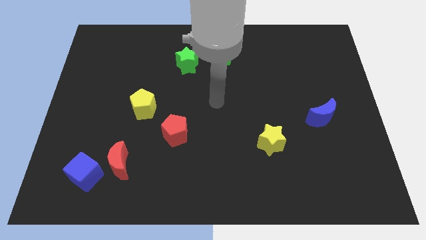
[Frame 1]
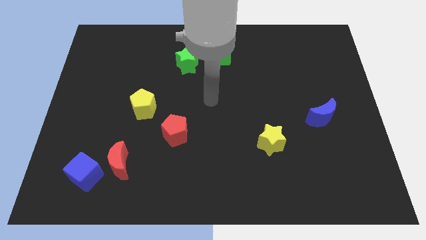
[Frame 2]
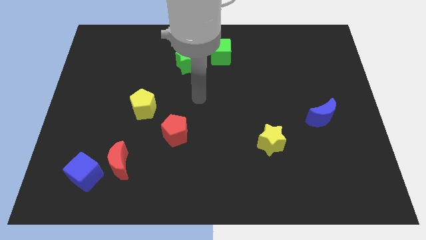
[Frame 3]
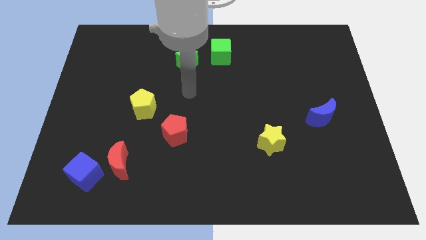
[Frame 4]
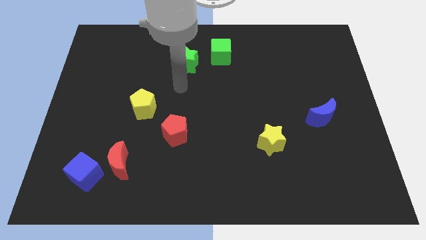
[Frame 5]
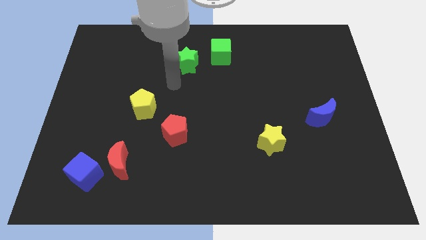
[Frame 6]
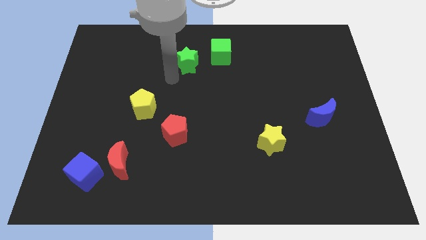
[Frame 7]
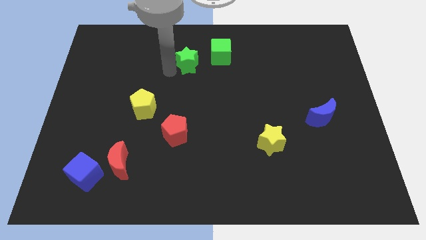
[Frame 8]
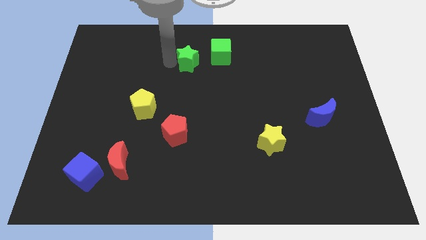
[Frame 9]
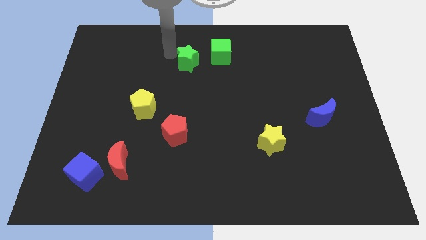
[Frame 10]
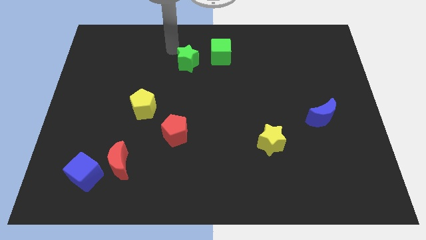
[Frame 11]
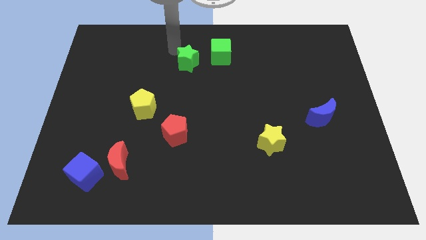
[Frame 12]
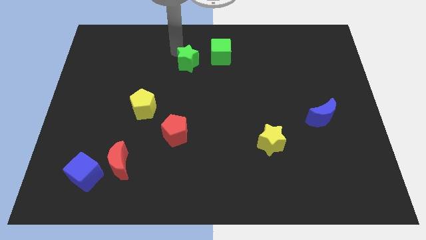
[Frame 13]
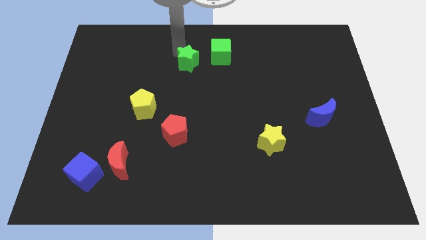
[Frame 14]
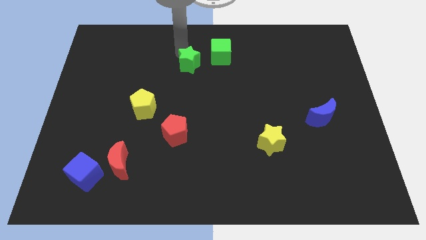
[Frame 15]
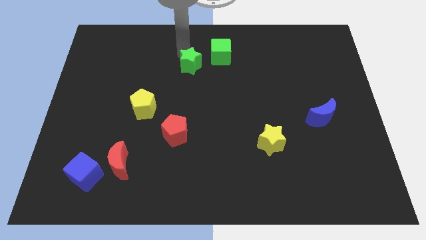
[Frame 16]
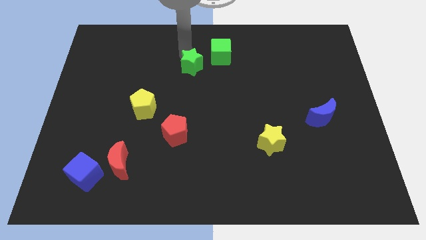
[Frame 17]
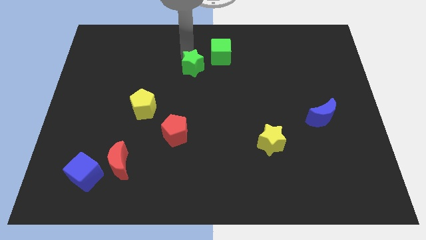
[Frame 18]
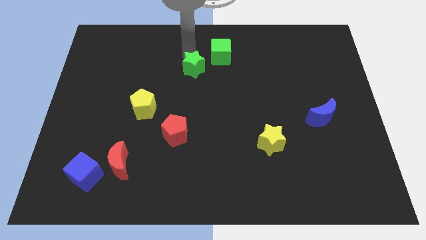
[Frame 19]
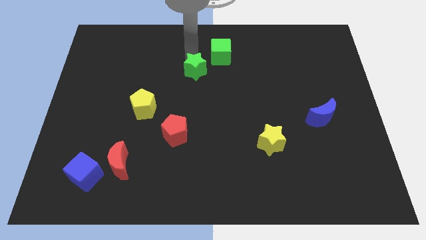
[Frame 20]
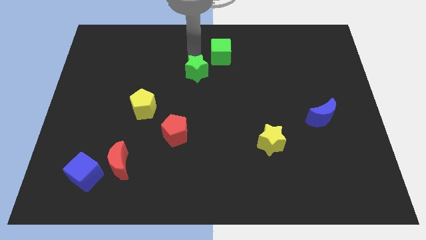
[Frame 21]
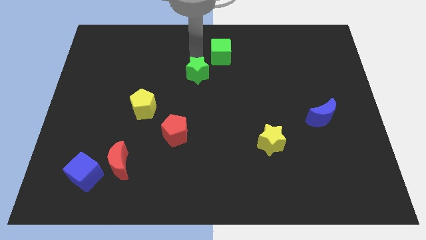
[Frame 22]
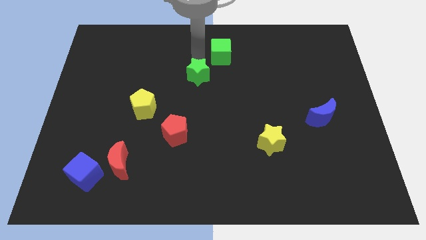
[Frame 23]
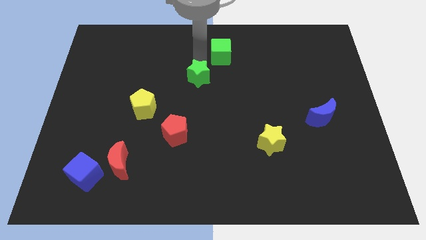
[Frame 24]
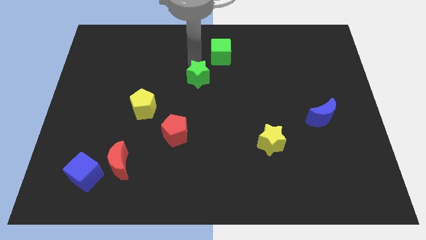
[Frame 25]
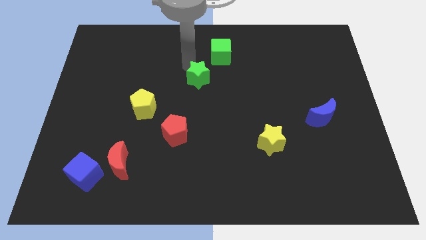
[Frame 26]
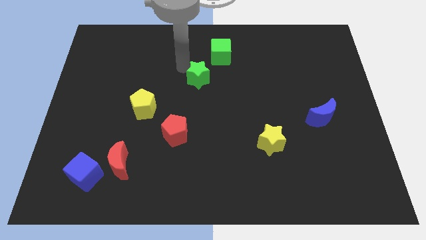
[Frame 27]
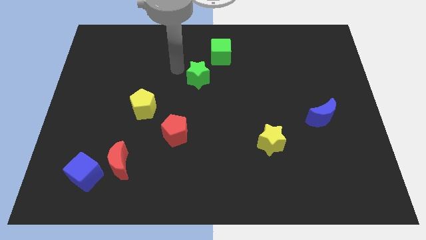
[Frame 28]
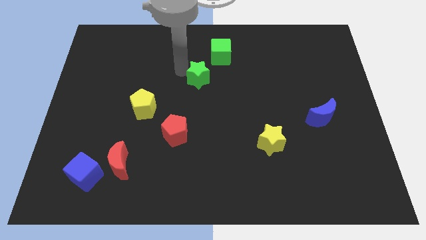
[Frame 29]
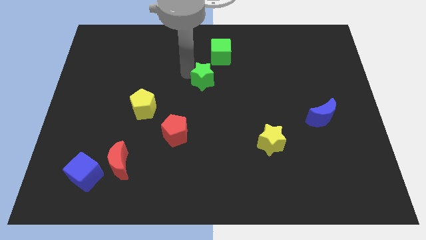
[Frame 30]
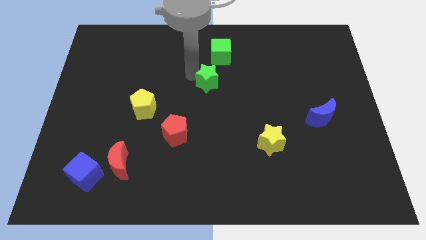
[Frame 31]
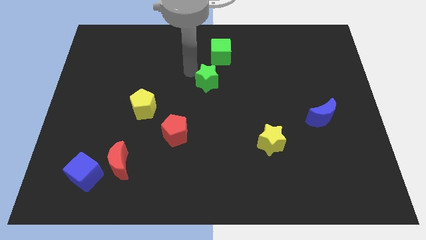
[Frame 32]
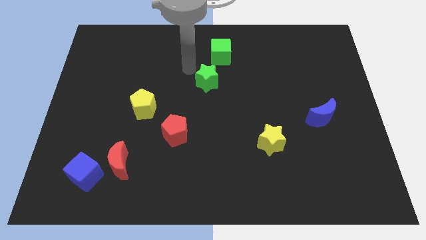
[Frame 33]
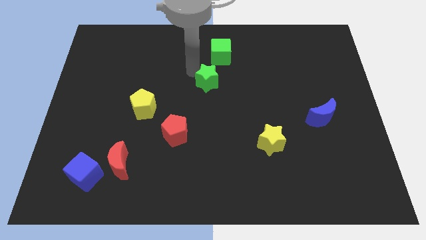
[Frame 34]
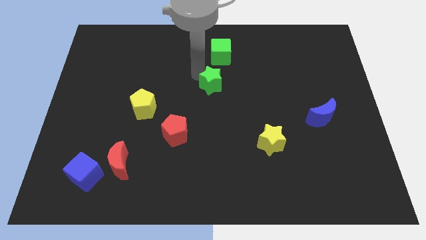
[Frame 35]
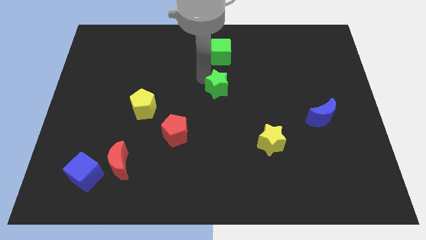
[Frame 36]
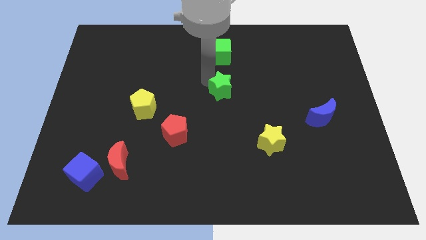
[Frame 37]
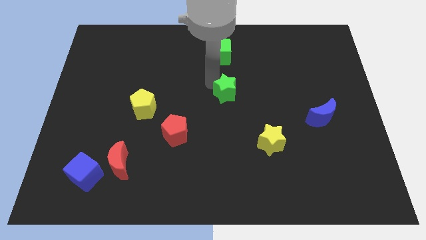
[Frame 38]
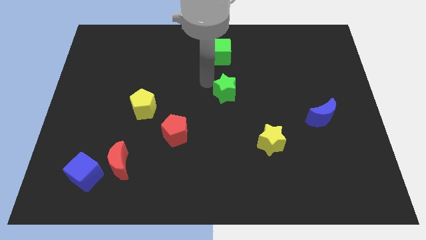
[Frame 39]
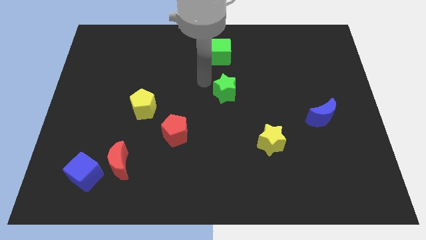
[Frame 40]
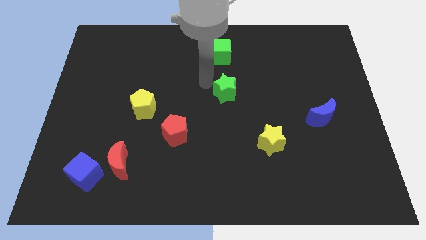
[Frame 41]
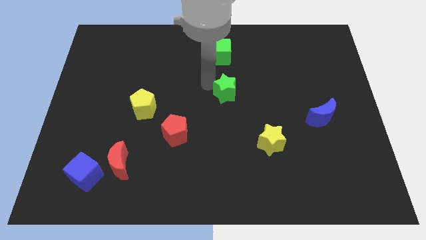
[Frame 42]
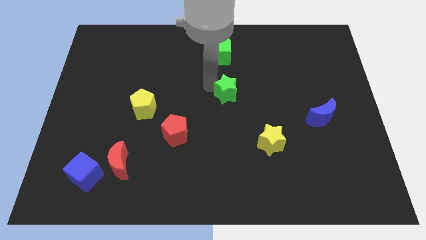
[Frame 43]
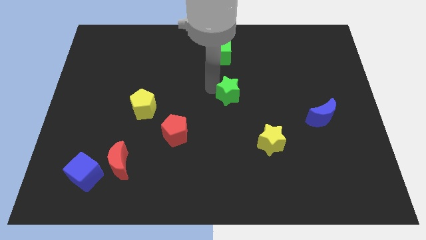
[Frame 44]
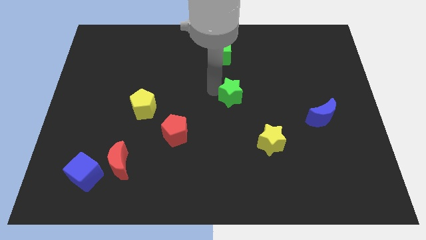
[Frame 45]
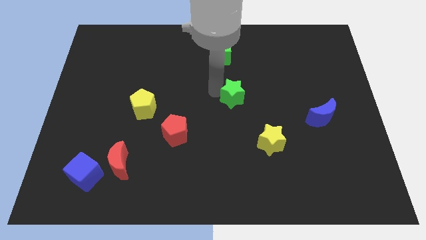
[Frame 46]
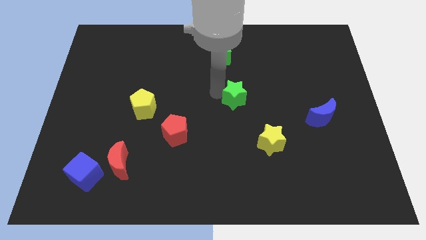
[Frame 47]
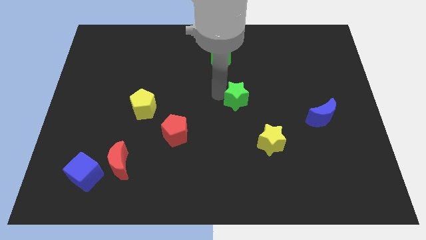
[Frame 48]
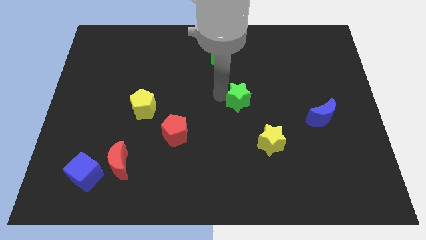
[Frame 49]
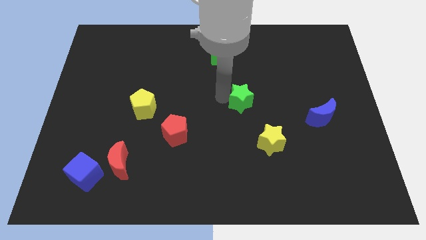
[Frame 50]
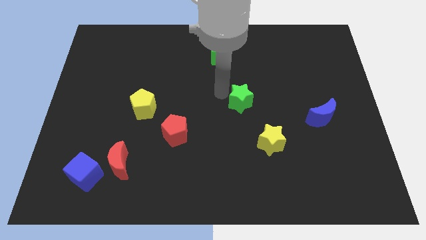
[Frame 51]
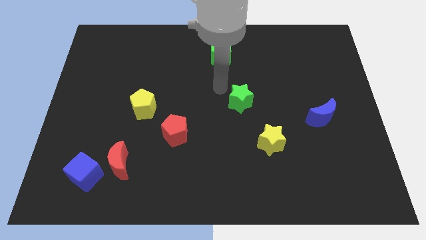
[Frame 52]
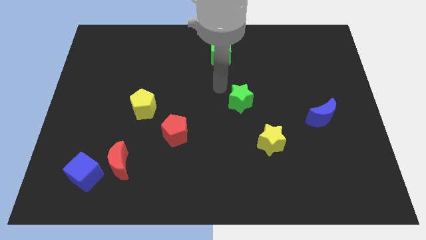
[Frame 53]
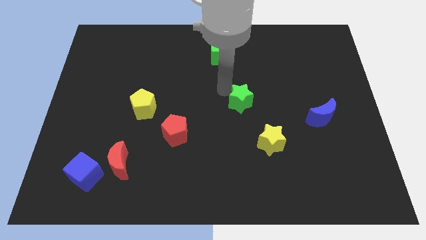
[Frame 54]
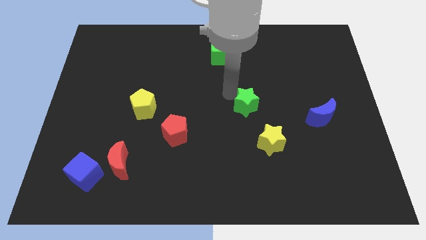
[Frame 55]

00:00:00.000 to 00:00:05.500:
push the green star down and right diagonally

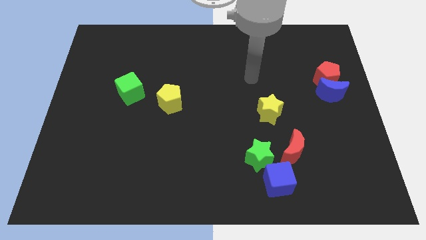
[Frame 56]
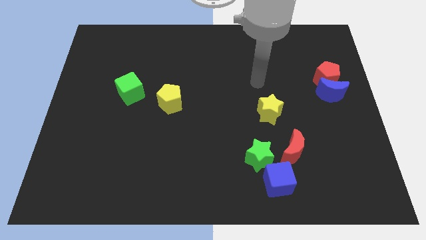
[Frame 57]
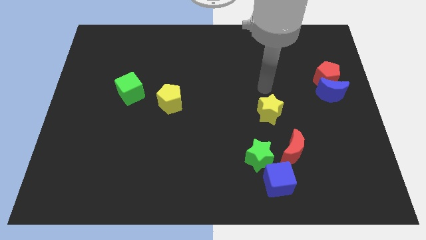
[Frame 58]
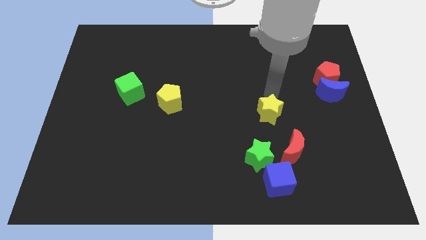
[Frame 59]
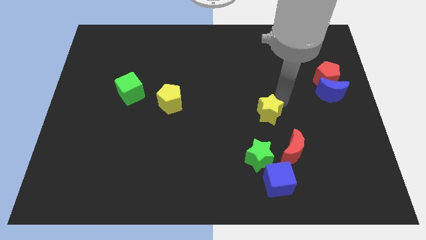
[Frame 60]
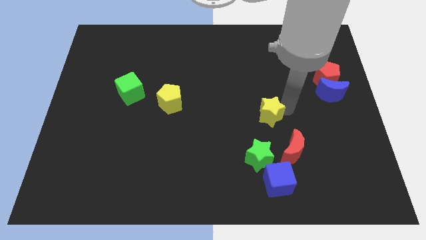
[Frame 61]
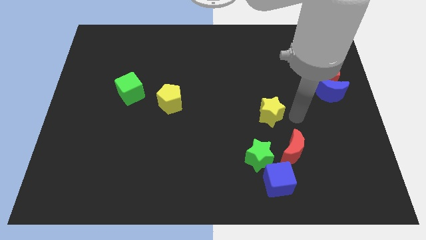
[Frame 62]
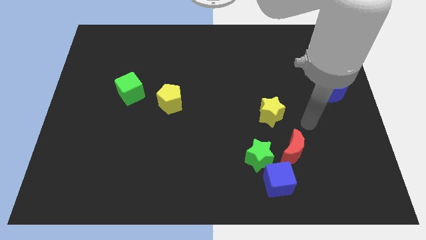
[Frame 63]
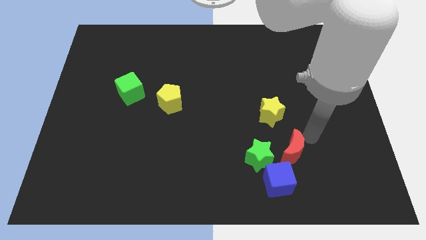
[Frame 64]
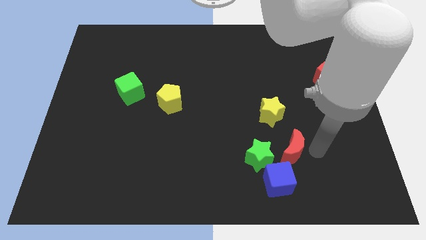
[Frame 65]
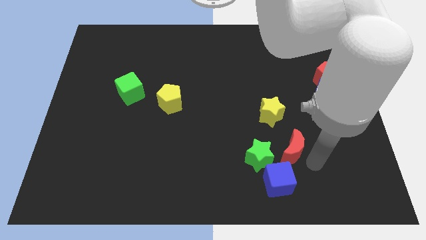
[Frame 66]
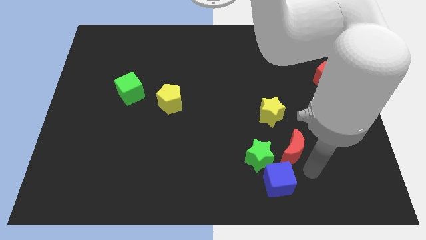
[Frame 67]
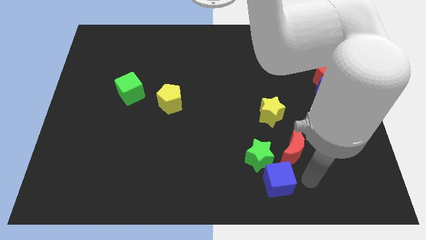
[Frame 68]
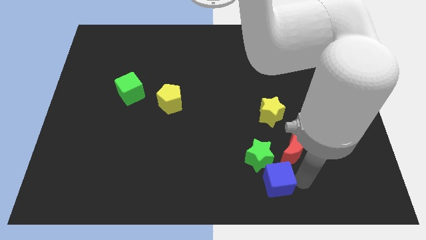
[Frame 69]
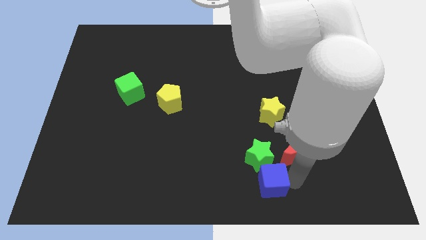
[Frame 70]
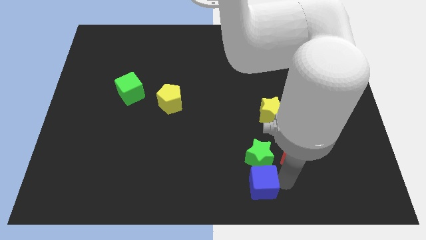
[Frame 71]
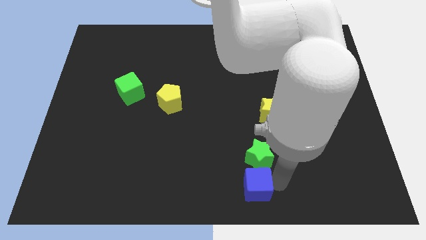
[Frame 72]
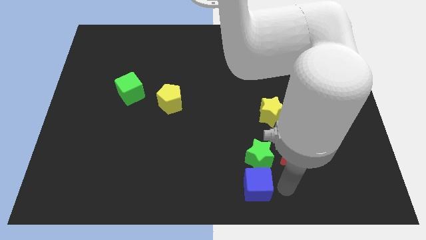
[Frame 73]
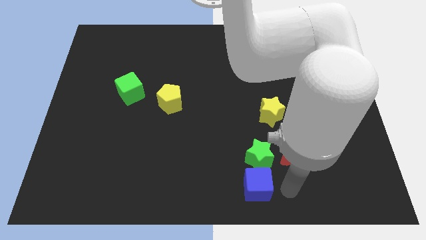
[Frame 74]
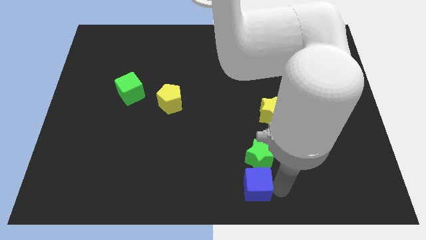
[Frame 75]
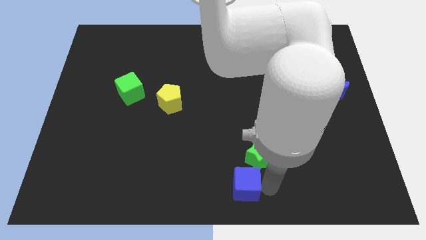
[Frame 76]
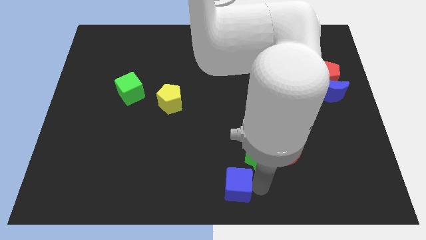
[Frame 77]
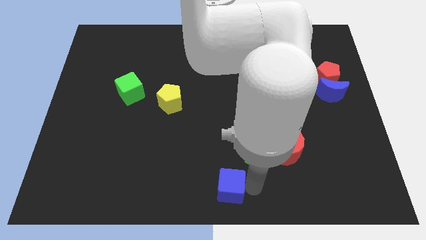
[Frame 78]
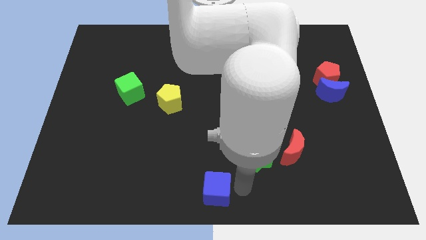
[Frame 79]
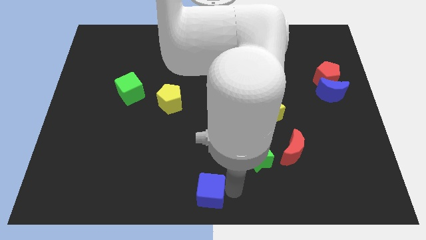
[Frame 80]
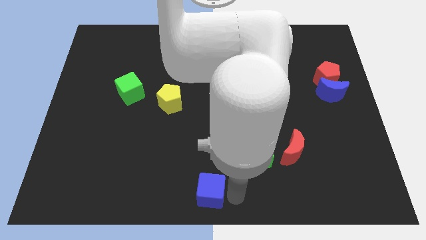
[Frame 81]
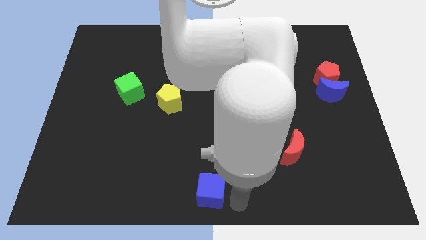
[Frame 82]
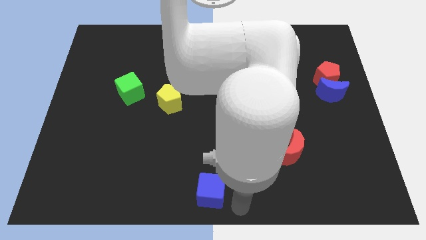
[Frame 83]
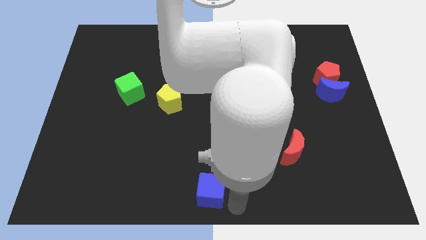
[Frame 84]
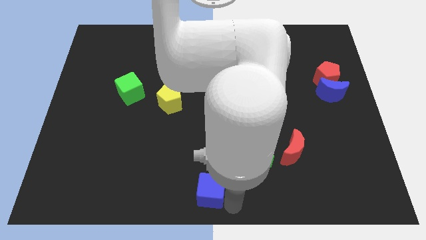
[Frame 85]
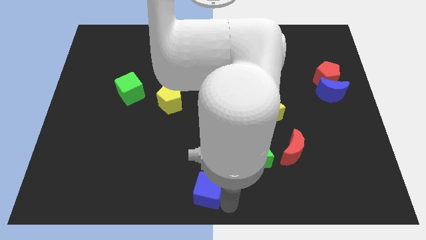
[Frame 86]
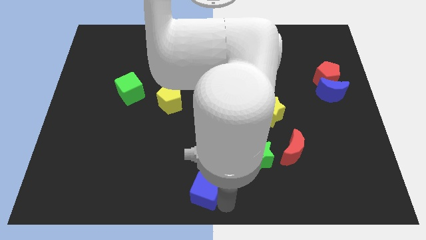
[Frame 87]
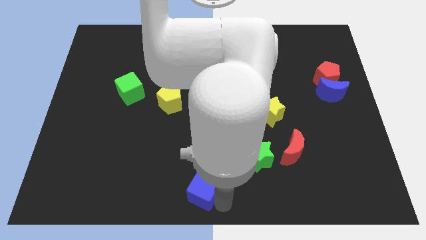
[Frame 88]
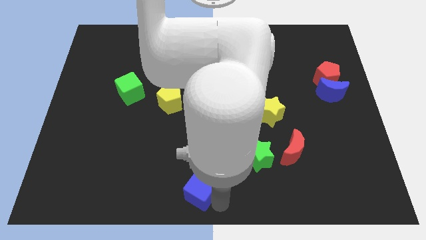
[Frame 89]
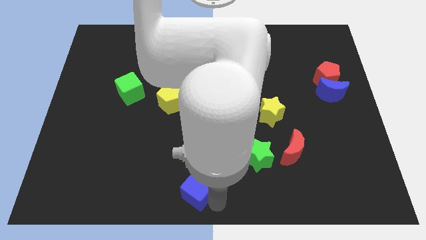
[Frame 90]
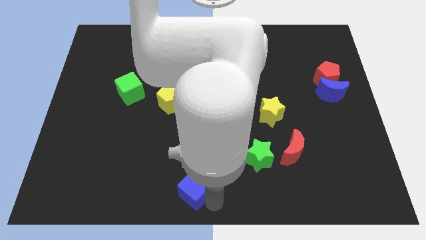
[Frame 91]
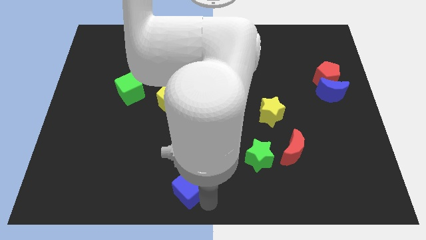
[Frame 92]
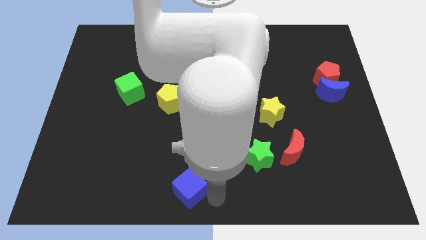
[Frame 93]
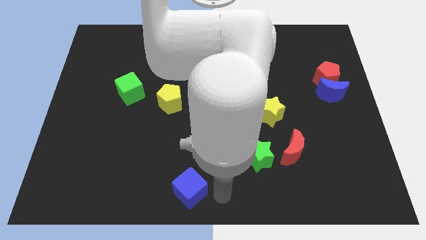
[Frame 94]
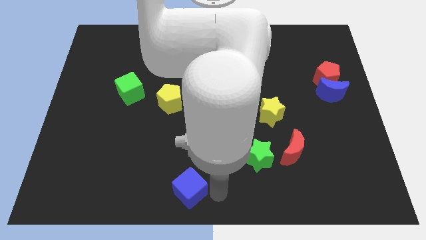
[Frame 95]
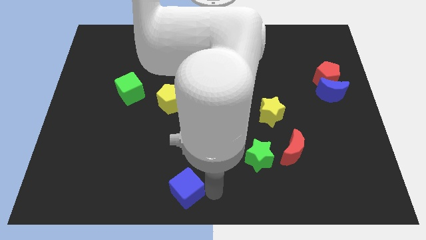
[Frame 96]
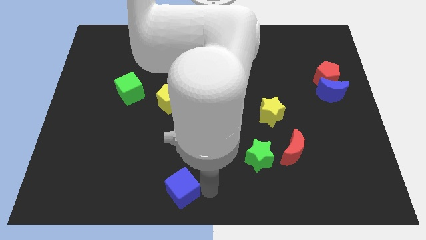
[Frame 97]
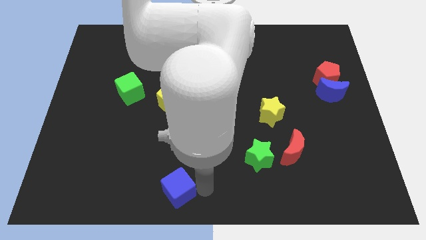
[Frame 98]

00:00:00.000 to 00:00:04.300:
push the blue cube left
